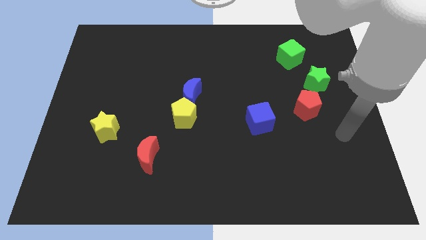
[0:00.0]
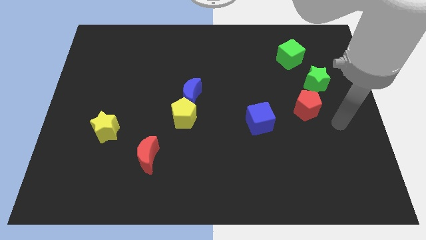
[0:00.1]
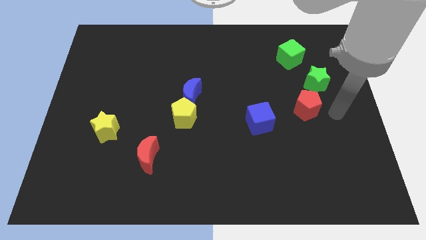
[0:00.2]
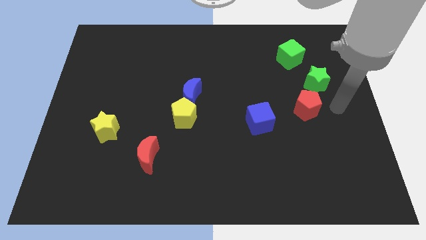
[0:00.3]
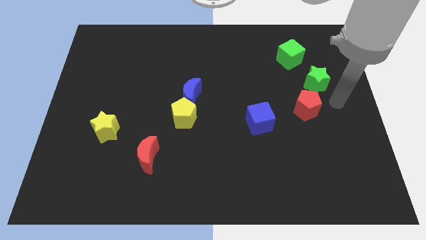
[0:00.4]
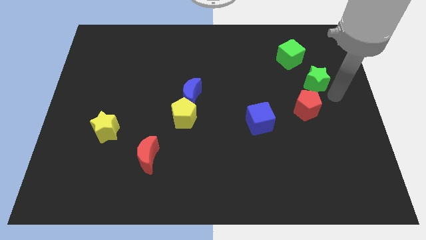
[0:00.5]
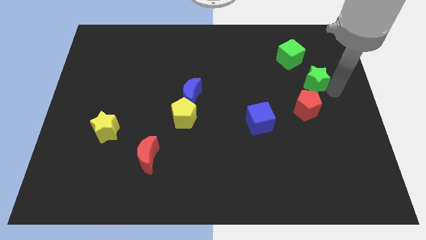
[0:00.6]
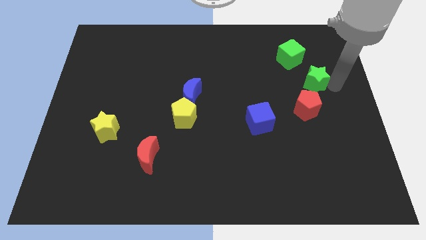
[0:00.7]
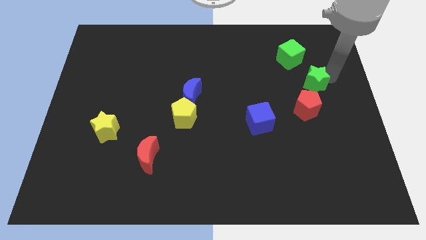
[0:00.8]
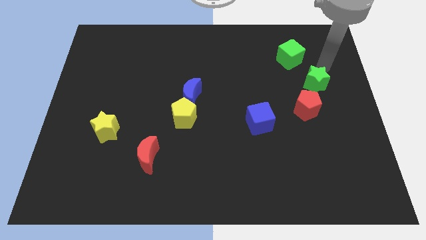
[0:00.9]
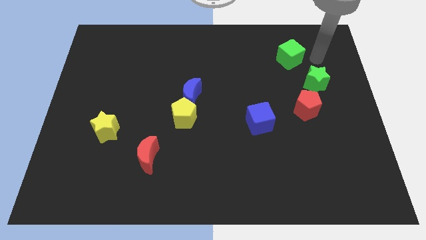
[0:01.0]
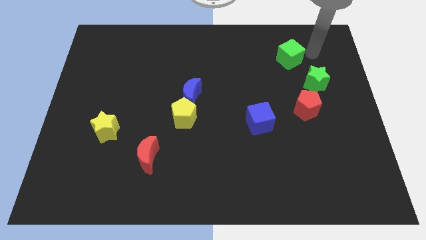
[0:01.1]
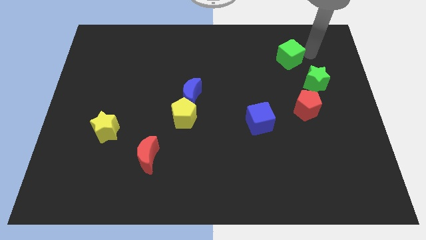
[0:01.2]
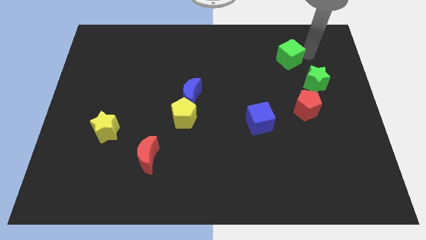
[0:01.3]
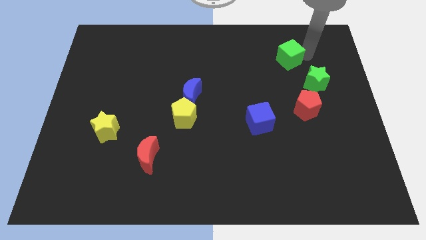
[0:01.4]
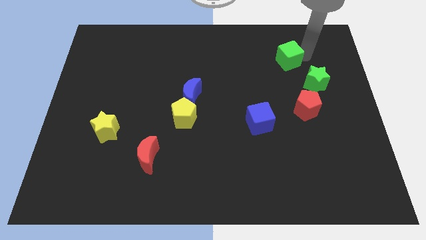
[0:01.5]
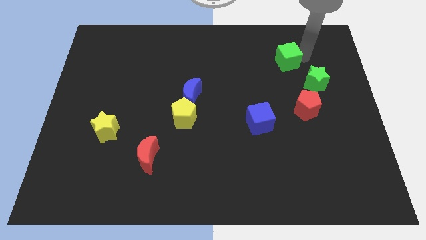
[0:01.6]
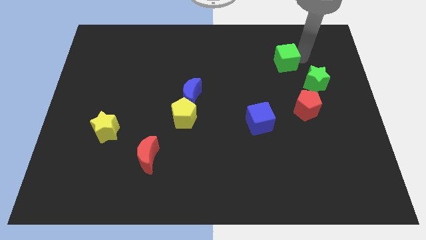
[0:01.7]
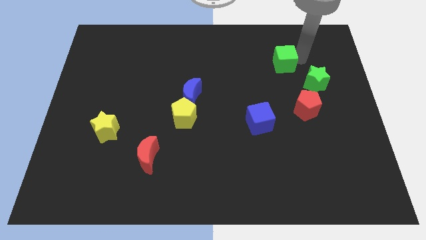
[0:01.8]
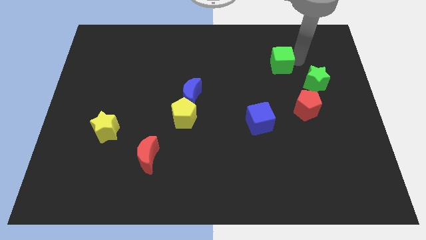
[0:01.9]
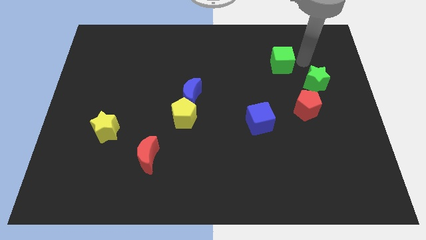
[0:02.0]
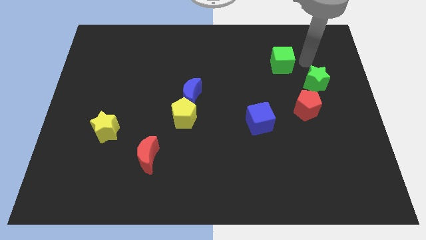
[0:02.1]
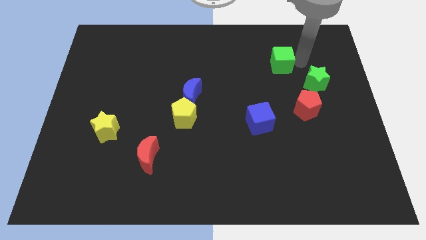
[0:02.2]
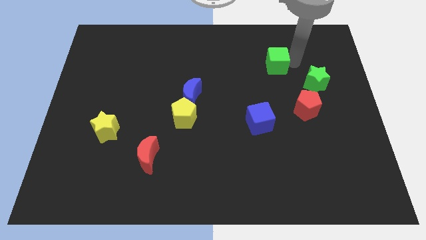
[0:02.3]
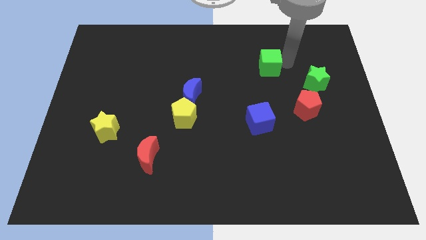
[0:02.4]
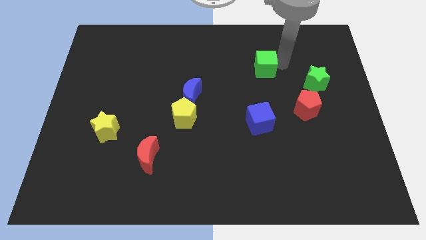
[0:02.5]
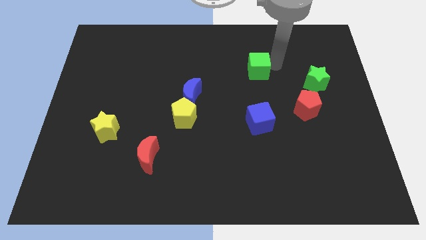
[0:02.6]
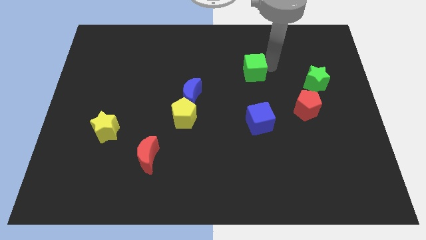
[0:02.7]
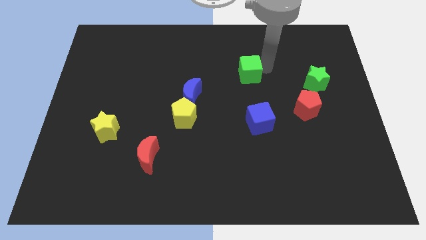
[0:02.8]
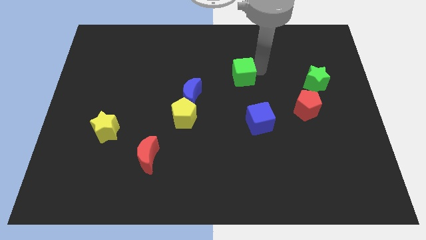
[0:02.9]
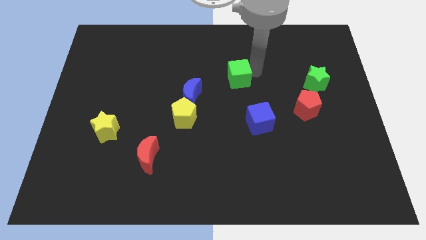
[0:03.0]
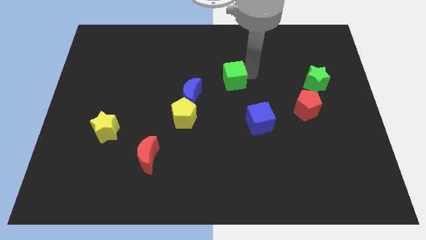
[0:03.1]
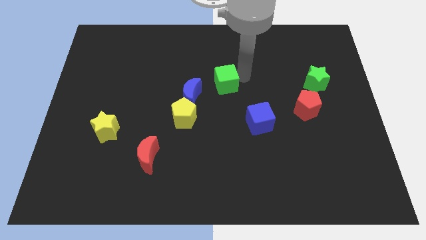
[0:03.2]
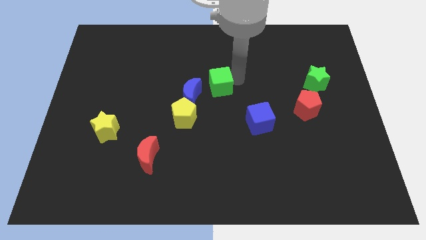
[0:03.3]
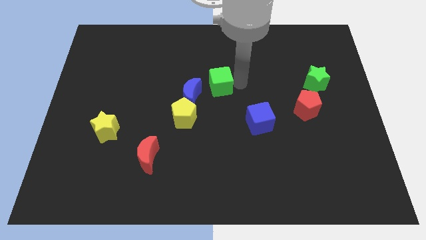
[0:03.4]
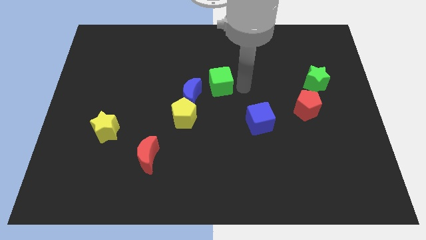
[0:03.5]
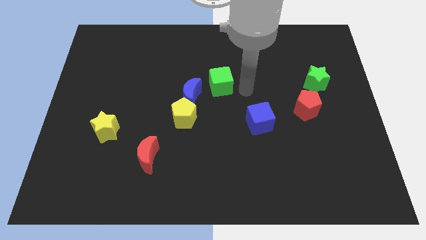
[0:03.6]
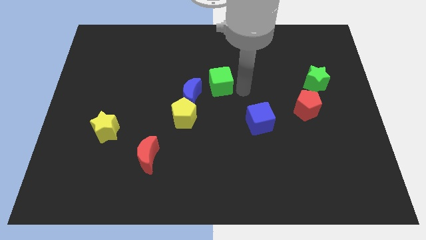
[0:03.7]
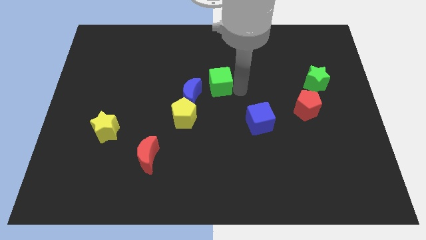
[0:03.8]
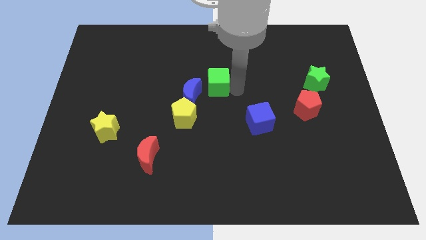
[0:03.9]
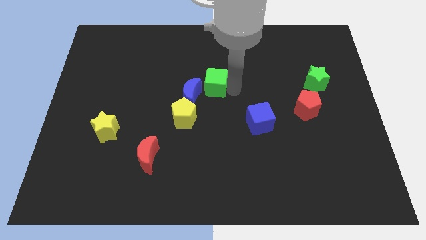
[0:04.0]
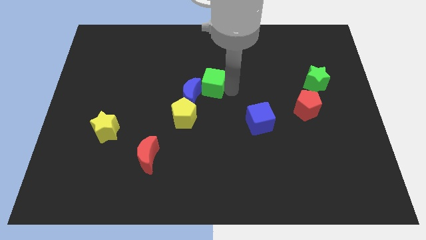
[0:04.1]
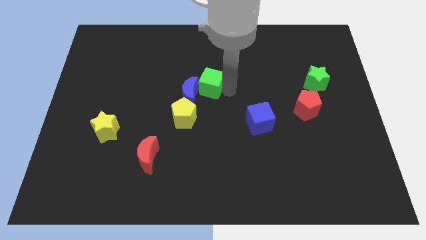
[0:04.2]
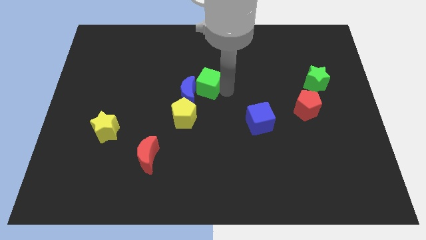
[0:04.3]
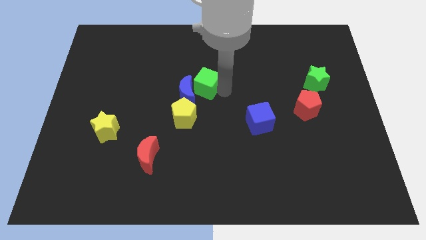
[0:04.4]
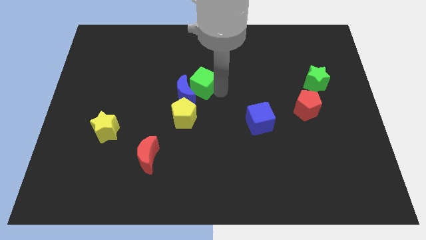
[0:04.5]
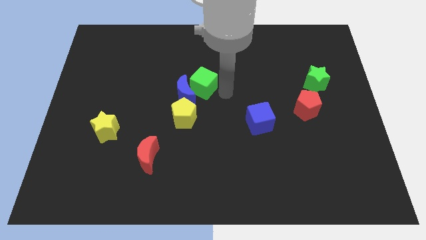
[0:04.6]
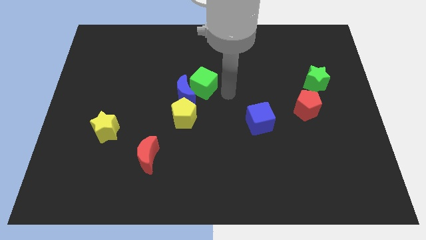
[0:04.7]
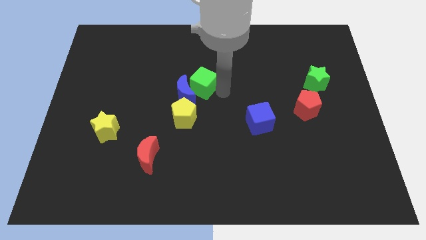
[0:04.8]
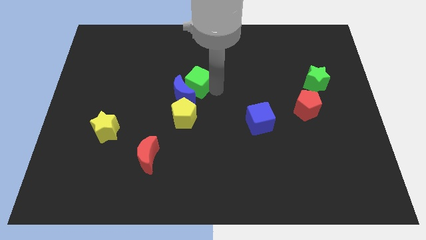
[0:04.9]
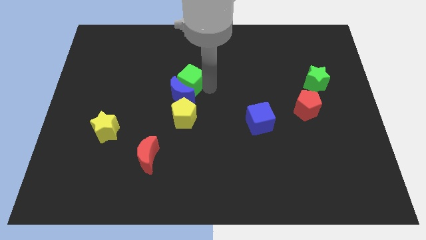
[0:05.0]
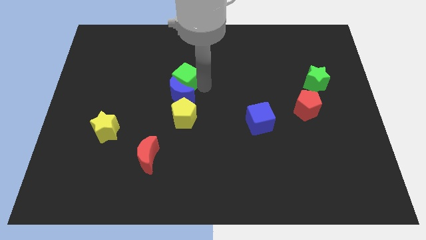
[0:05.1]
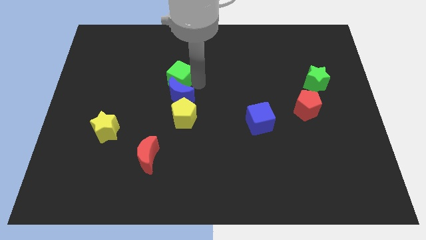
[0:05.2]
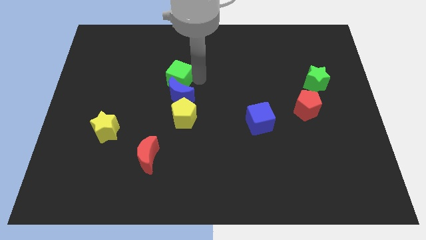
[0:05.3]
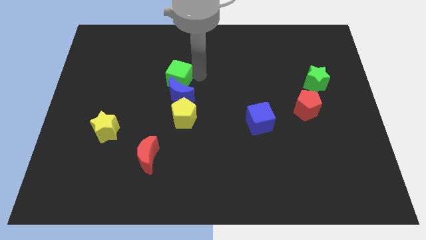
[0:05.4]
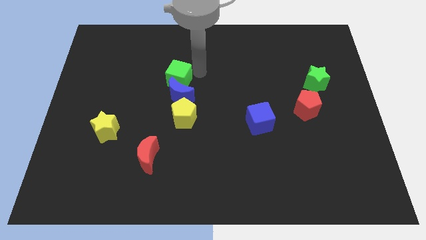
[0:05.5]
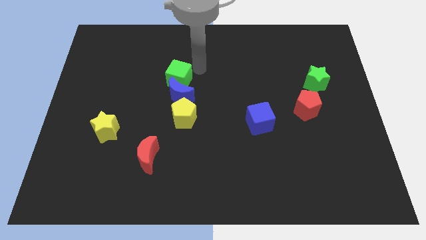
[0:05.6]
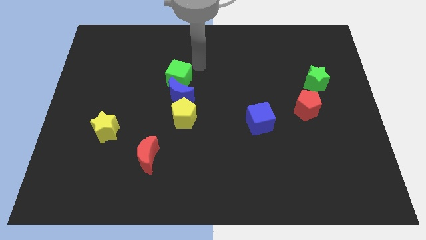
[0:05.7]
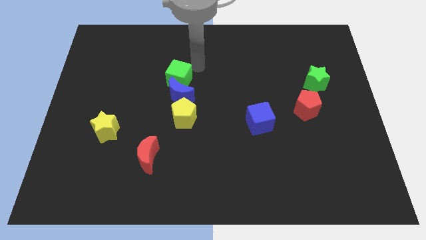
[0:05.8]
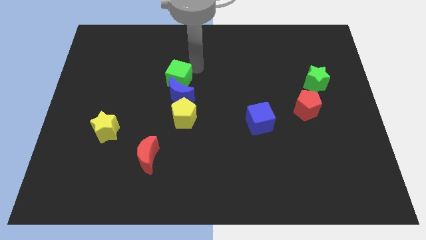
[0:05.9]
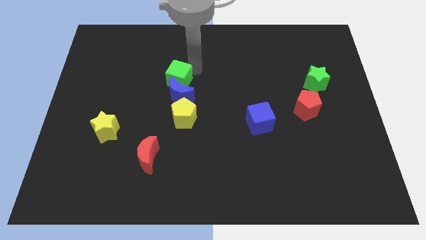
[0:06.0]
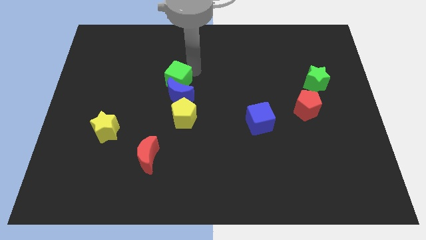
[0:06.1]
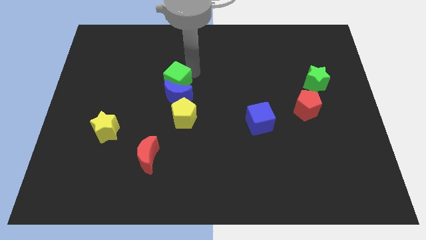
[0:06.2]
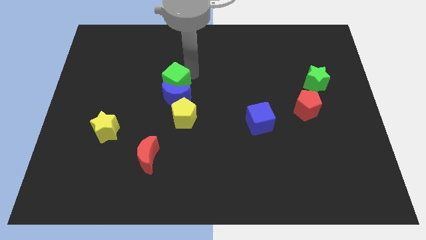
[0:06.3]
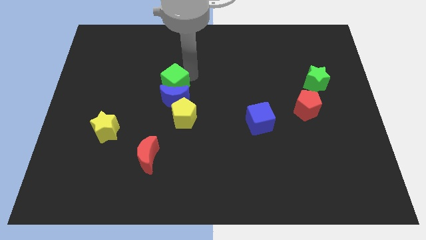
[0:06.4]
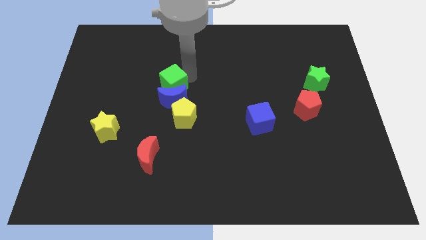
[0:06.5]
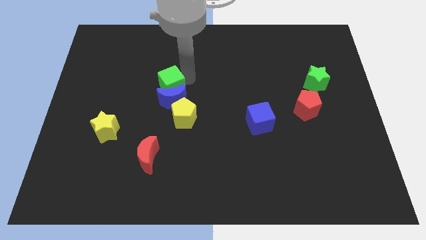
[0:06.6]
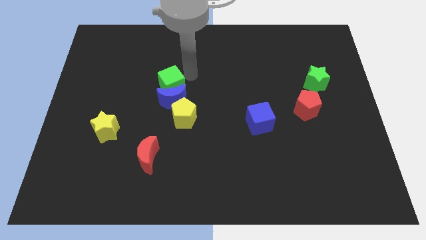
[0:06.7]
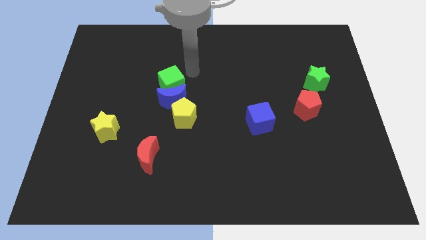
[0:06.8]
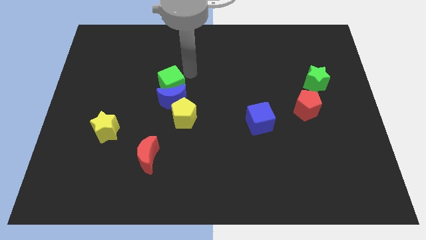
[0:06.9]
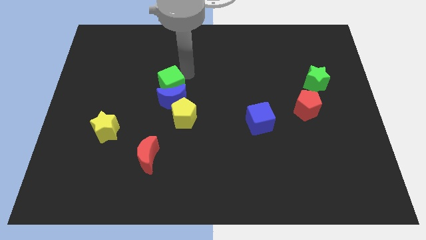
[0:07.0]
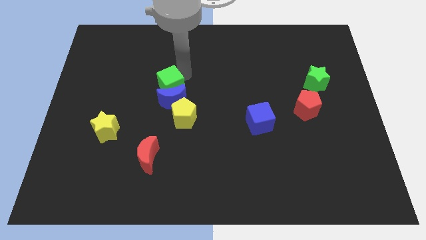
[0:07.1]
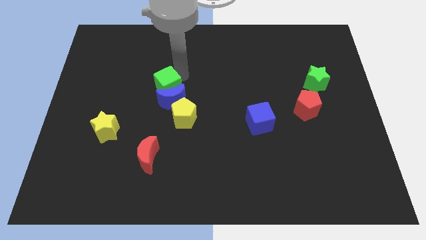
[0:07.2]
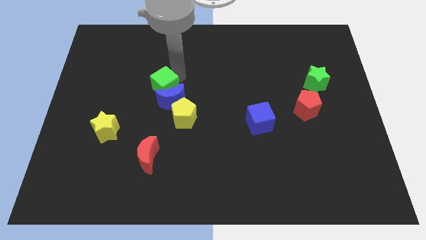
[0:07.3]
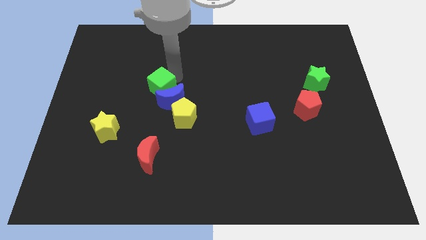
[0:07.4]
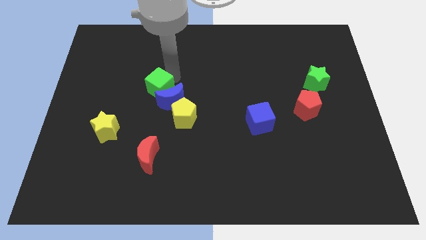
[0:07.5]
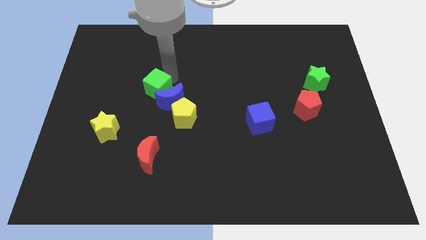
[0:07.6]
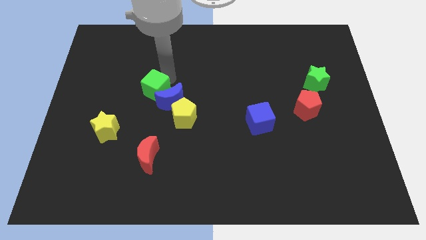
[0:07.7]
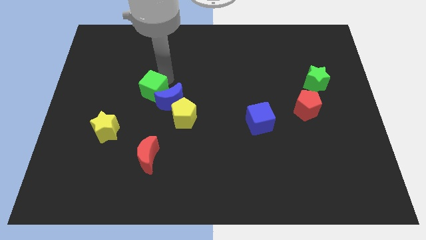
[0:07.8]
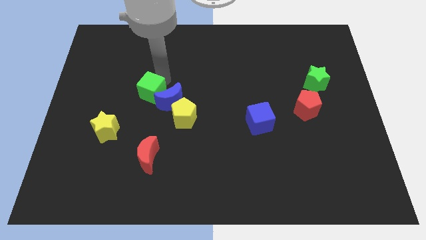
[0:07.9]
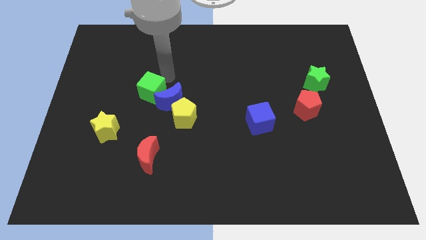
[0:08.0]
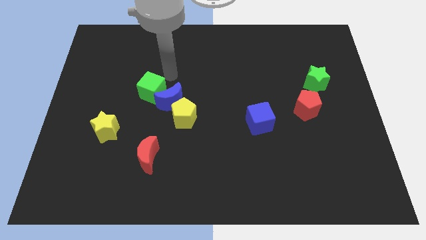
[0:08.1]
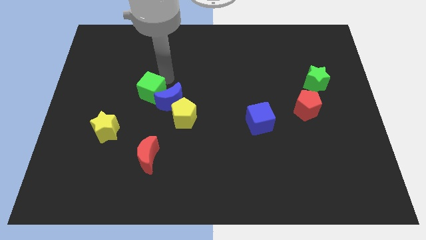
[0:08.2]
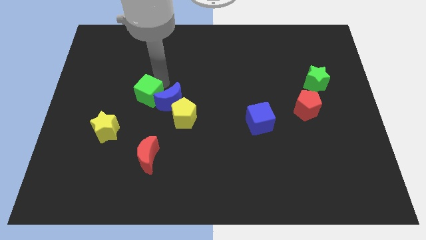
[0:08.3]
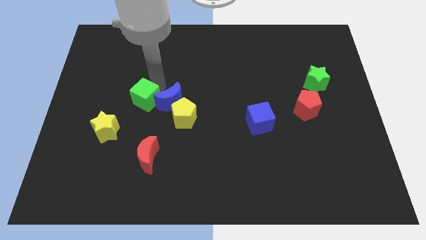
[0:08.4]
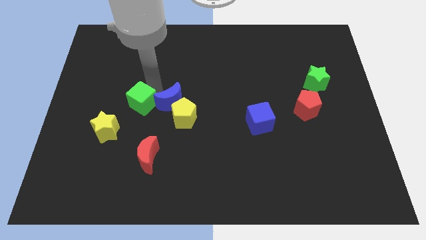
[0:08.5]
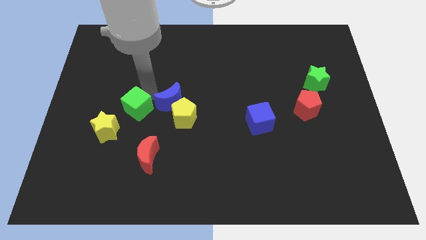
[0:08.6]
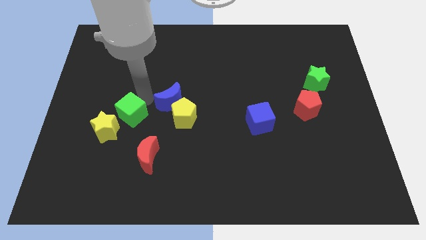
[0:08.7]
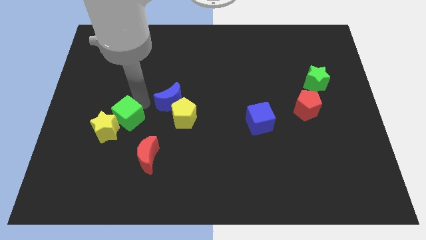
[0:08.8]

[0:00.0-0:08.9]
put the green cube to the yellow star
